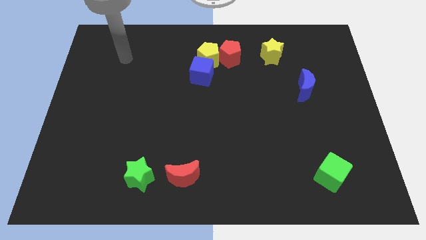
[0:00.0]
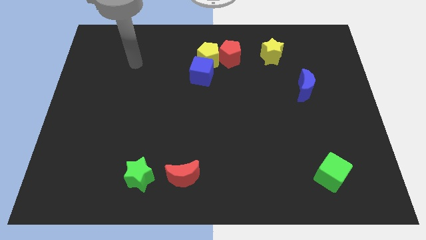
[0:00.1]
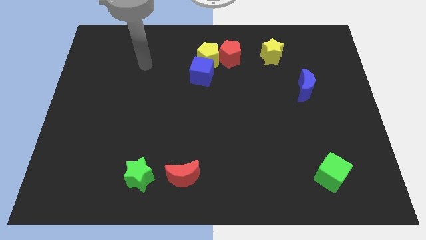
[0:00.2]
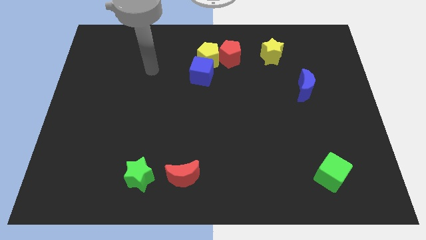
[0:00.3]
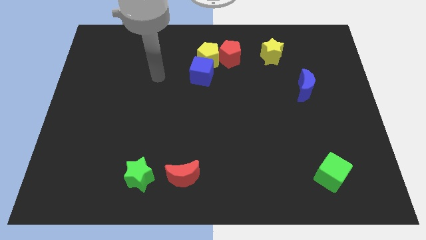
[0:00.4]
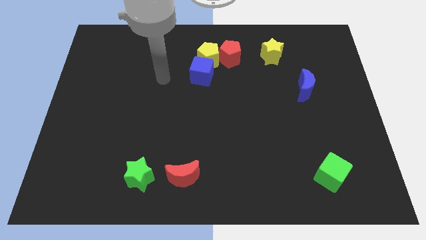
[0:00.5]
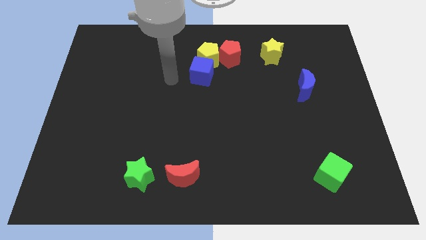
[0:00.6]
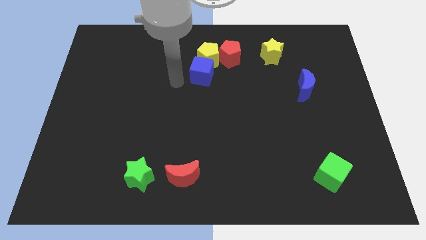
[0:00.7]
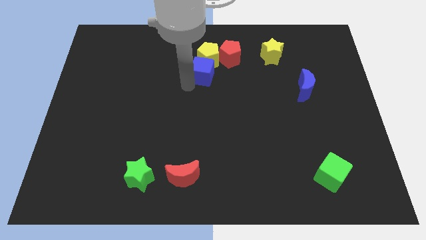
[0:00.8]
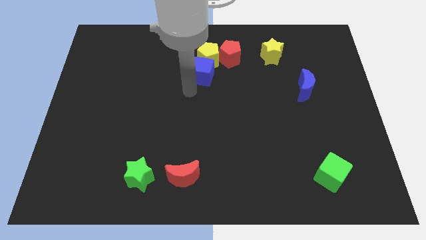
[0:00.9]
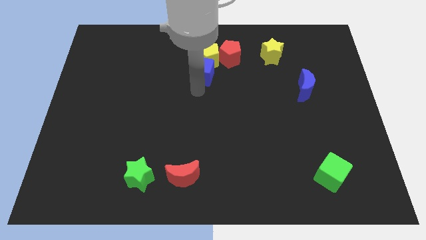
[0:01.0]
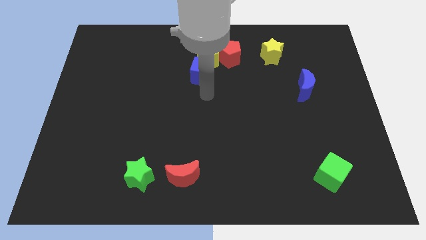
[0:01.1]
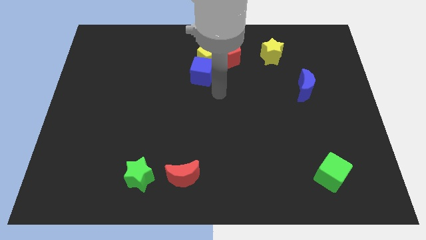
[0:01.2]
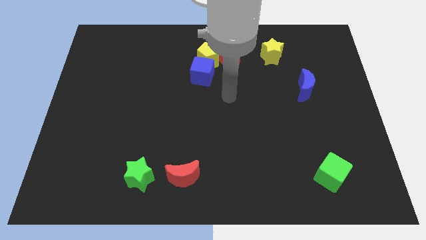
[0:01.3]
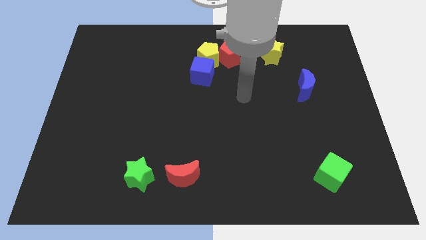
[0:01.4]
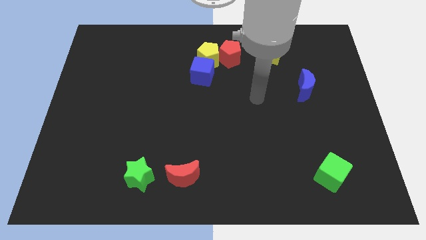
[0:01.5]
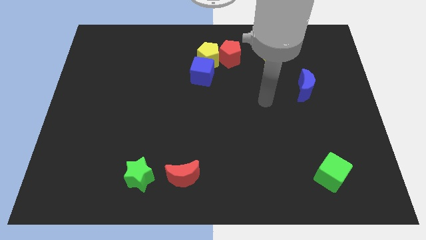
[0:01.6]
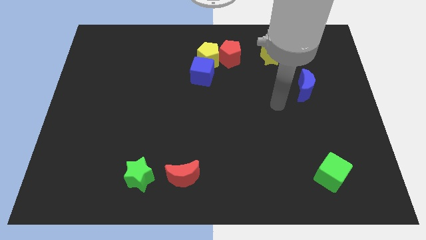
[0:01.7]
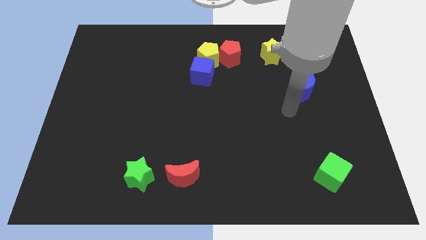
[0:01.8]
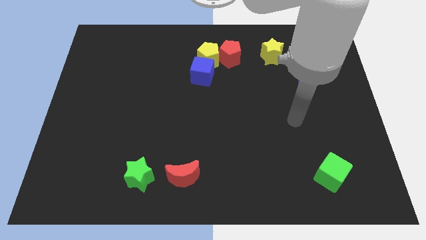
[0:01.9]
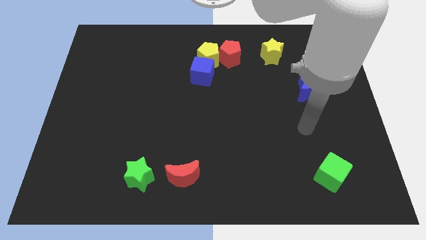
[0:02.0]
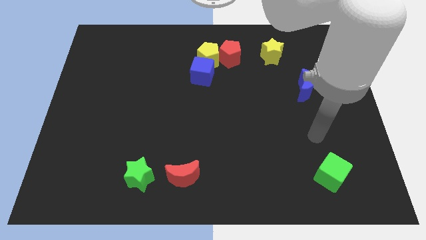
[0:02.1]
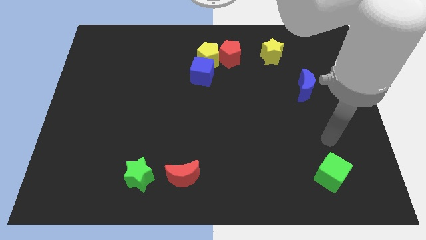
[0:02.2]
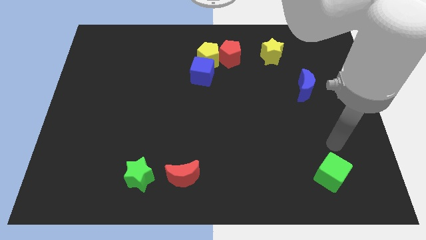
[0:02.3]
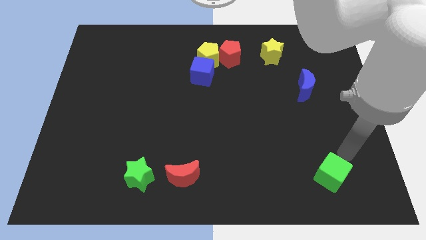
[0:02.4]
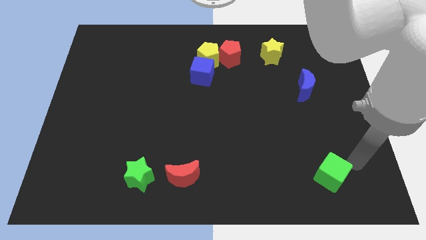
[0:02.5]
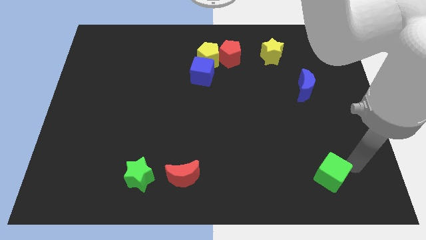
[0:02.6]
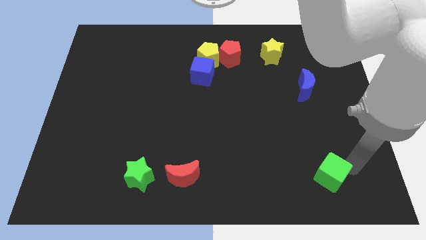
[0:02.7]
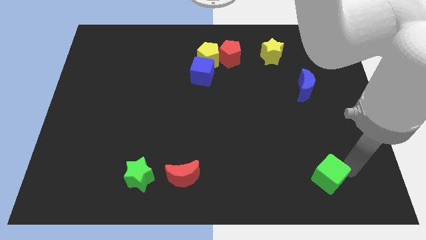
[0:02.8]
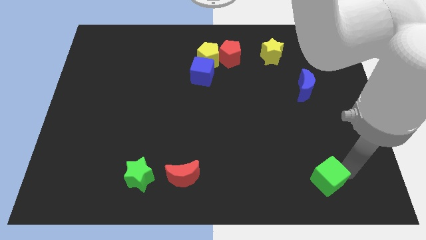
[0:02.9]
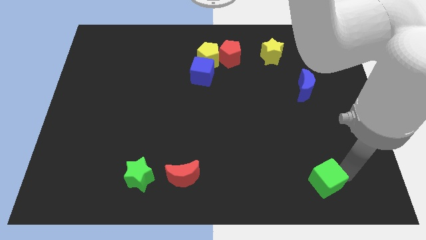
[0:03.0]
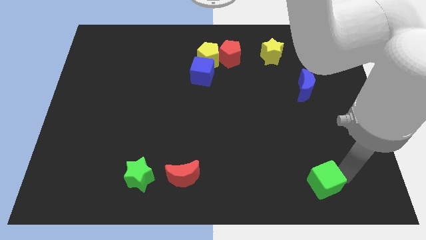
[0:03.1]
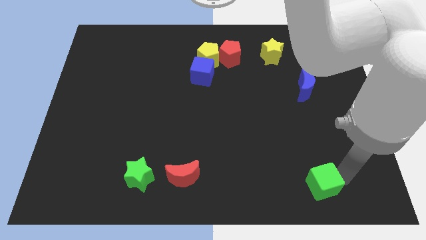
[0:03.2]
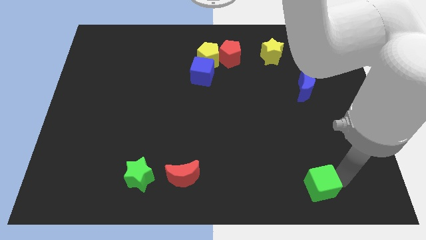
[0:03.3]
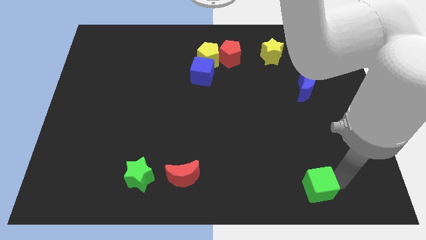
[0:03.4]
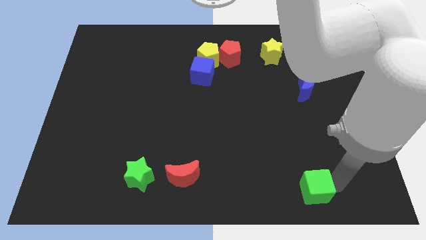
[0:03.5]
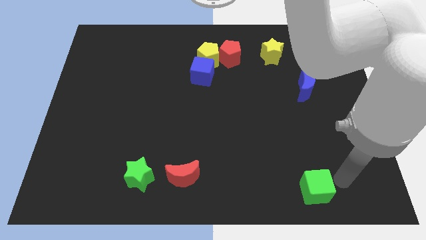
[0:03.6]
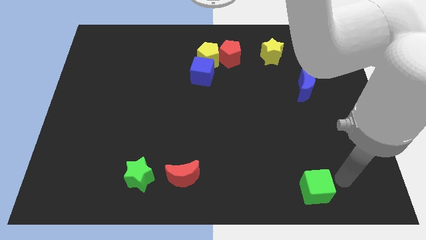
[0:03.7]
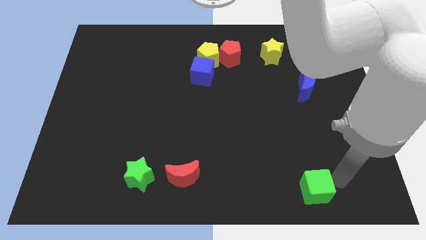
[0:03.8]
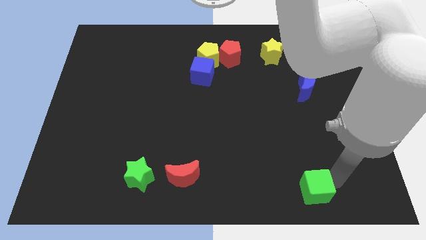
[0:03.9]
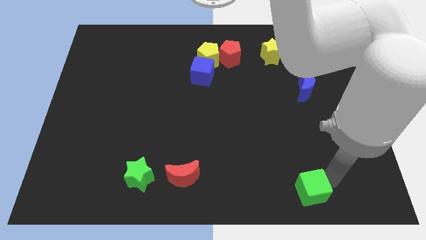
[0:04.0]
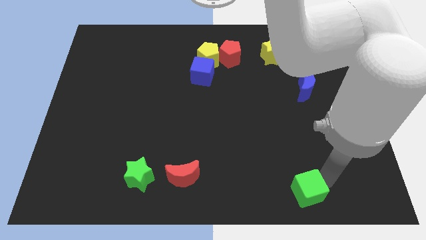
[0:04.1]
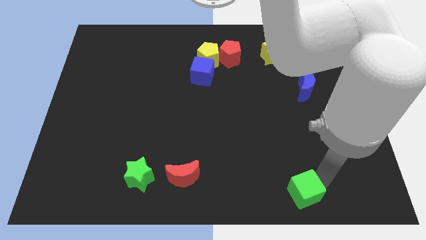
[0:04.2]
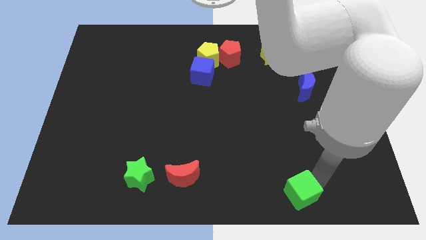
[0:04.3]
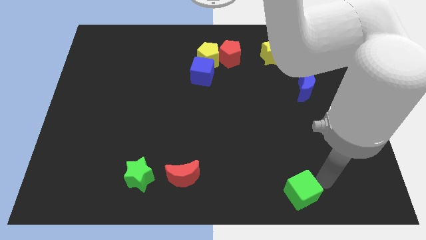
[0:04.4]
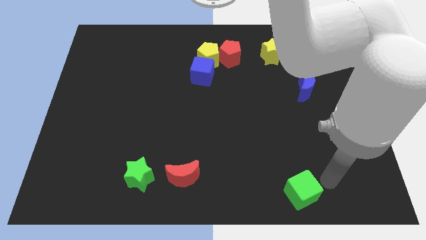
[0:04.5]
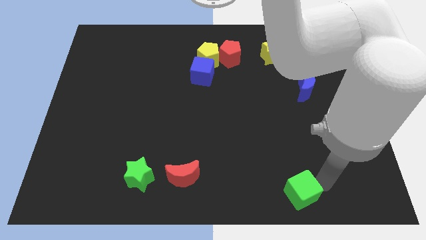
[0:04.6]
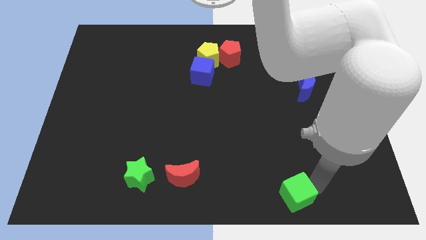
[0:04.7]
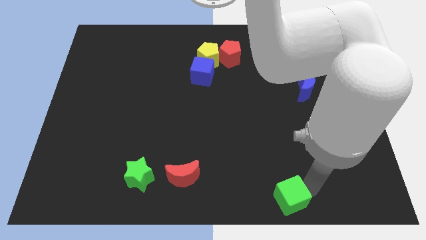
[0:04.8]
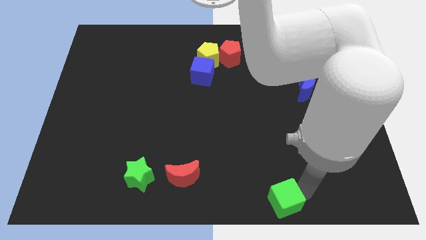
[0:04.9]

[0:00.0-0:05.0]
put the green cube to the bottom side

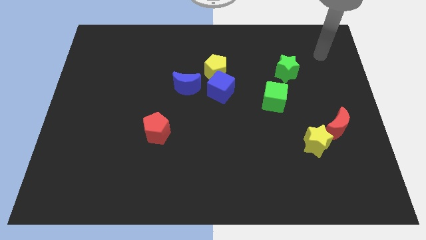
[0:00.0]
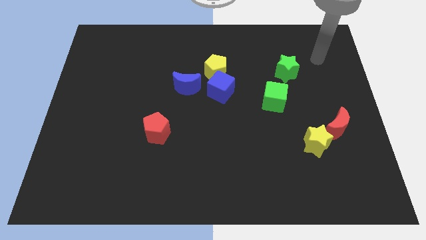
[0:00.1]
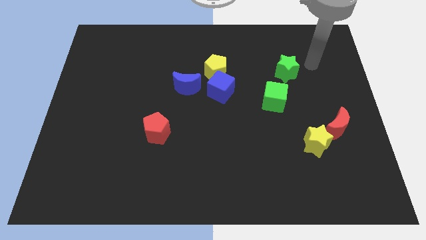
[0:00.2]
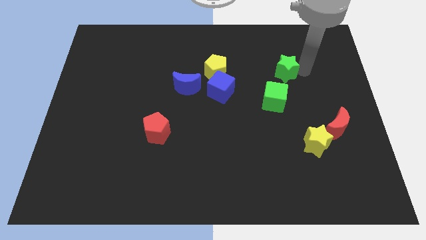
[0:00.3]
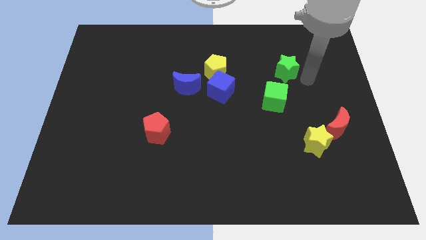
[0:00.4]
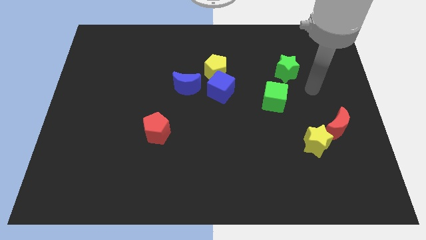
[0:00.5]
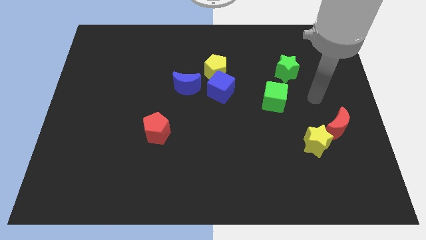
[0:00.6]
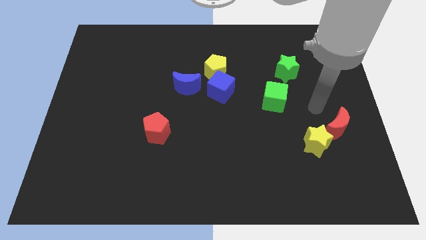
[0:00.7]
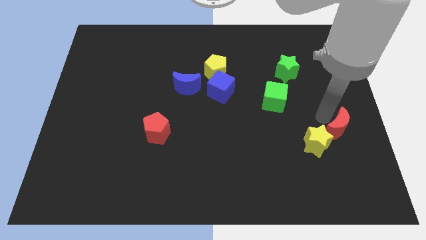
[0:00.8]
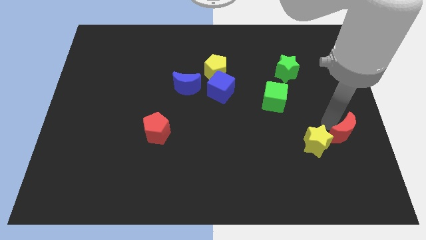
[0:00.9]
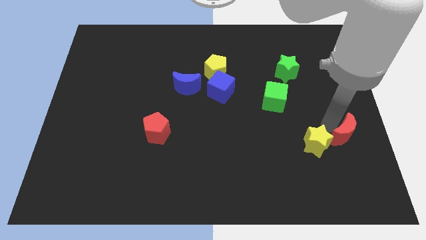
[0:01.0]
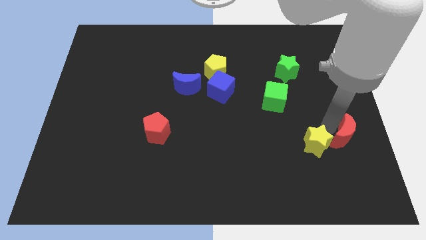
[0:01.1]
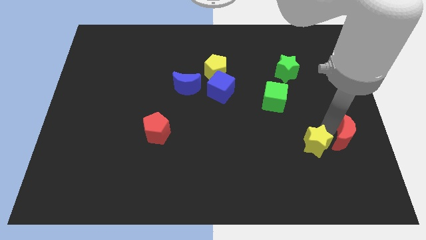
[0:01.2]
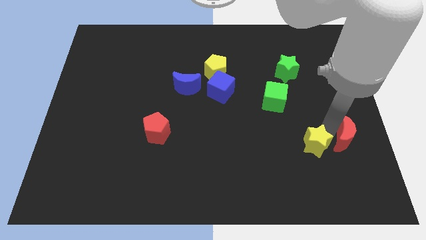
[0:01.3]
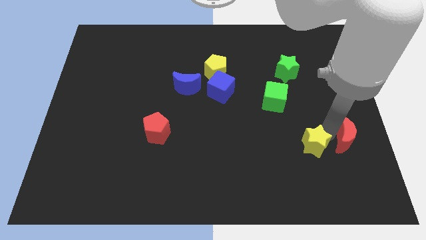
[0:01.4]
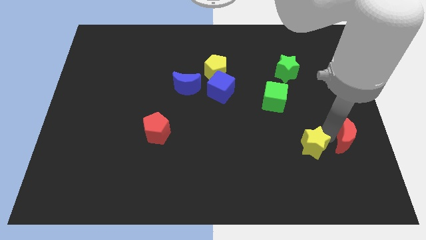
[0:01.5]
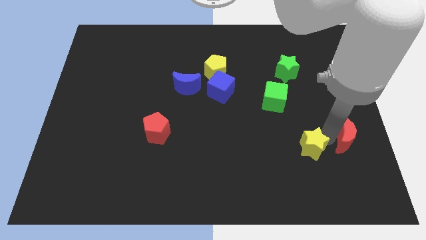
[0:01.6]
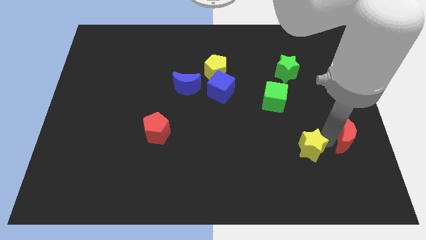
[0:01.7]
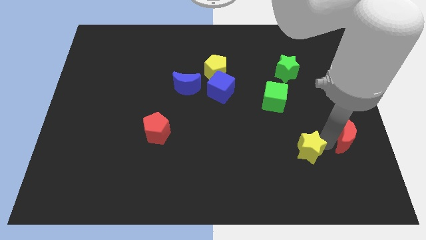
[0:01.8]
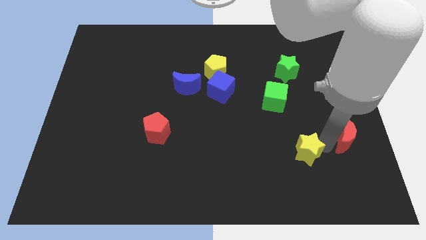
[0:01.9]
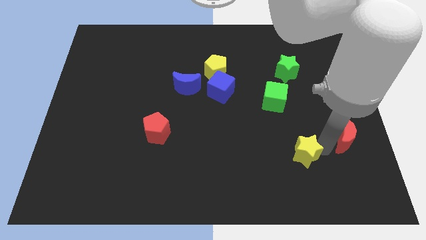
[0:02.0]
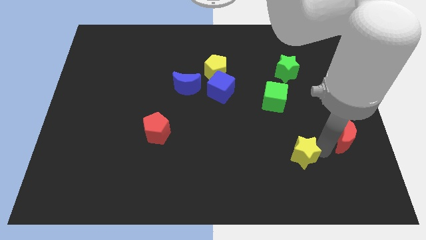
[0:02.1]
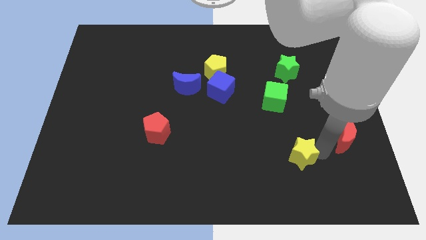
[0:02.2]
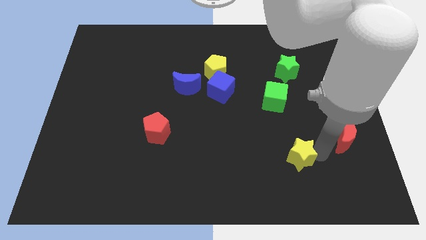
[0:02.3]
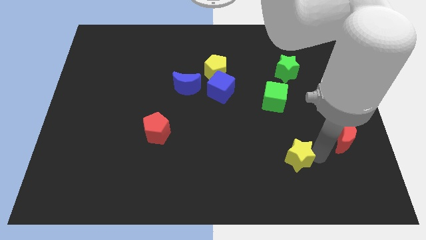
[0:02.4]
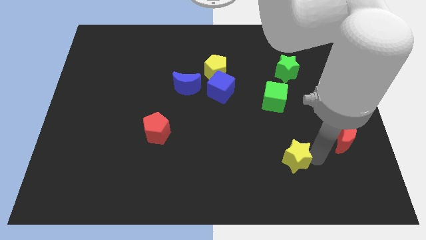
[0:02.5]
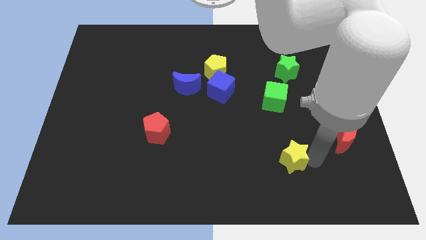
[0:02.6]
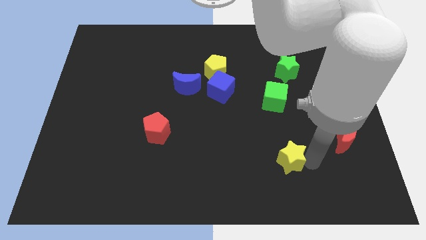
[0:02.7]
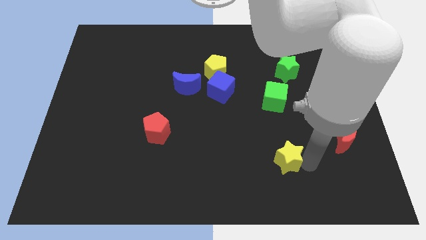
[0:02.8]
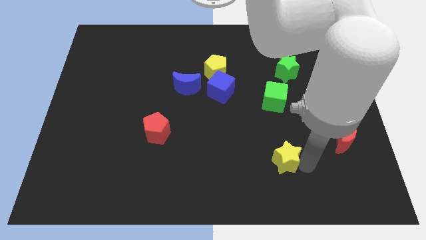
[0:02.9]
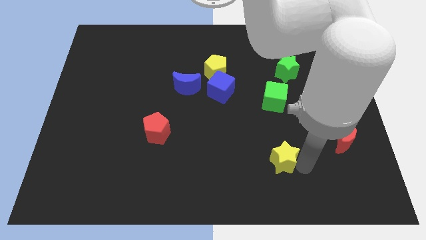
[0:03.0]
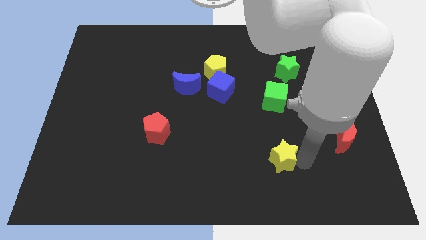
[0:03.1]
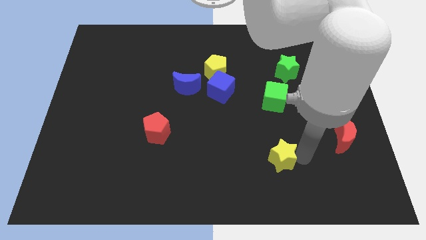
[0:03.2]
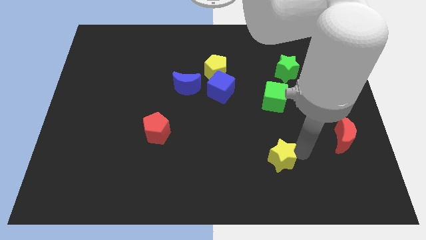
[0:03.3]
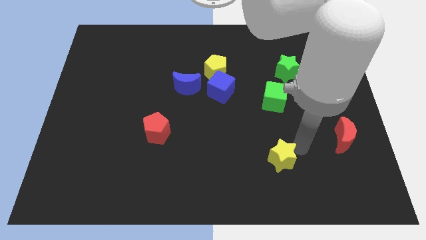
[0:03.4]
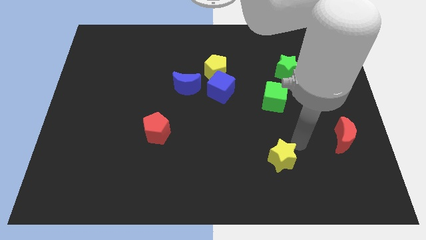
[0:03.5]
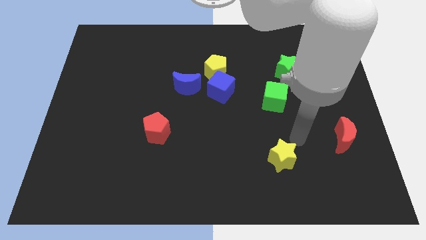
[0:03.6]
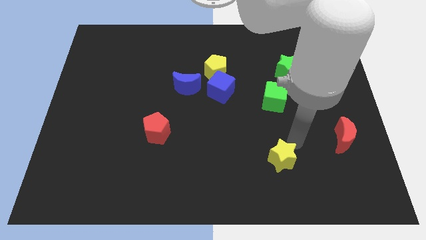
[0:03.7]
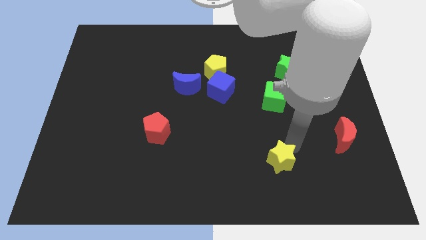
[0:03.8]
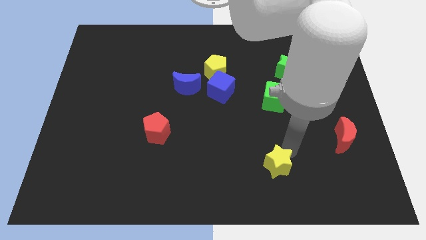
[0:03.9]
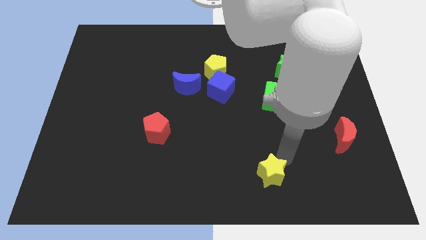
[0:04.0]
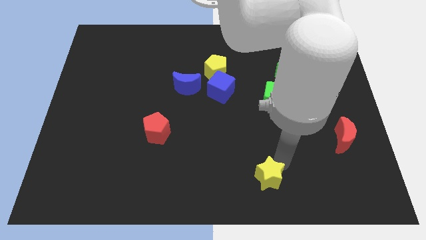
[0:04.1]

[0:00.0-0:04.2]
put the yellow star to the bottom
